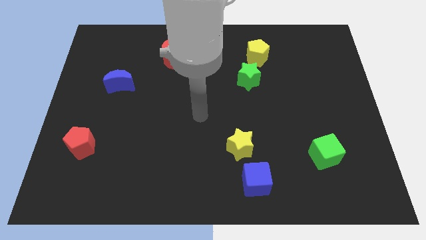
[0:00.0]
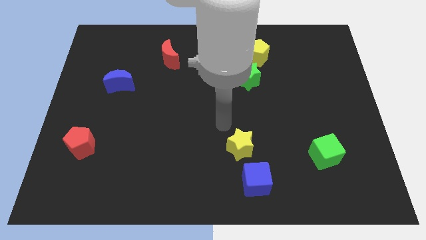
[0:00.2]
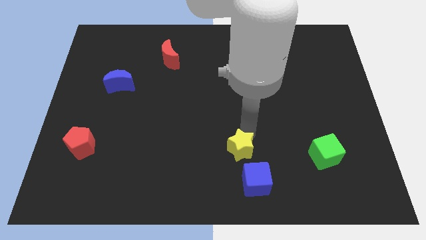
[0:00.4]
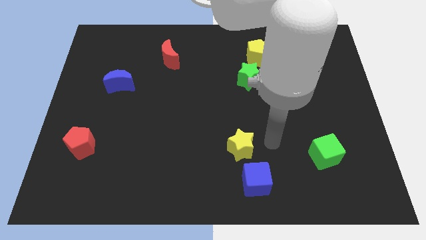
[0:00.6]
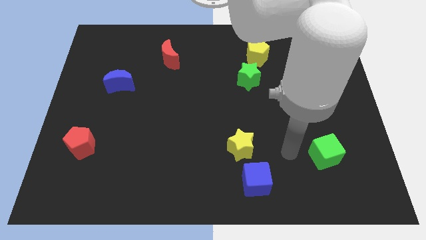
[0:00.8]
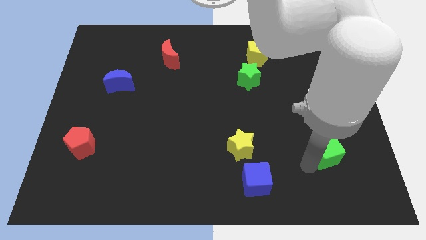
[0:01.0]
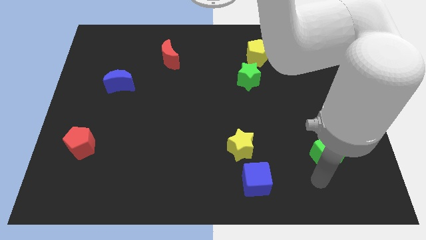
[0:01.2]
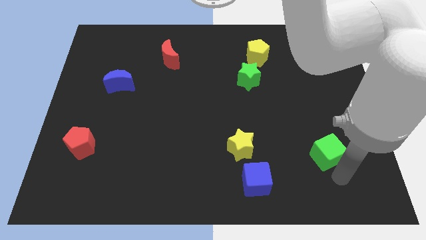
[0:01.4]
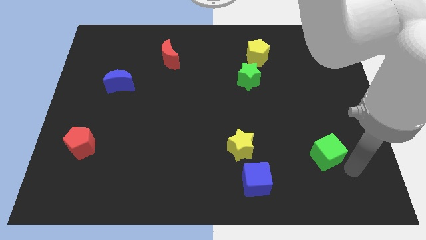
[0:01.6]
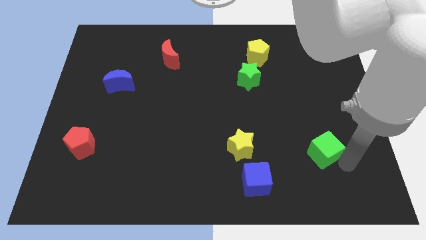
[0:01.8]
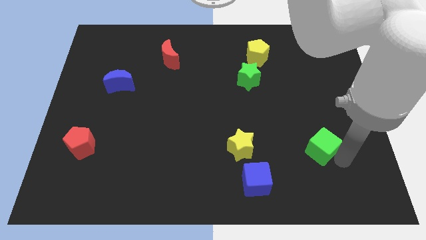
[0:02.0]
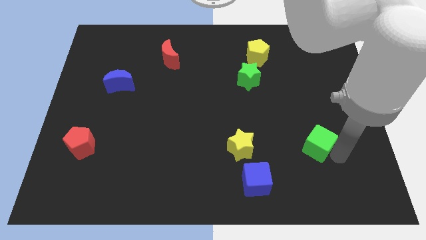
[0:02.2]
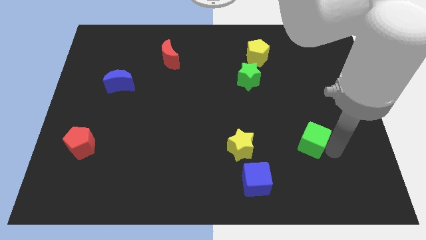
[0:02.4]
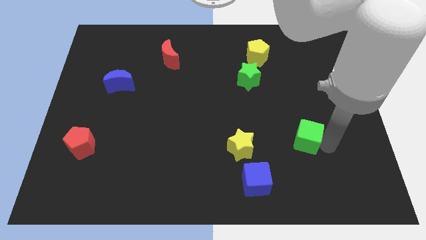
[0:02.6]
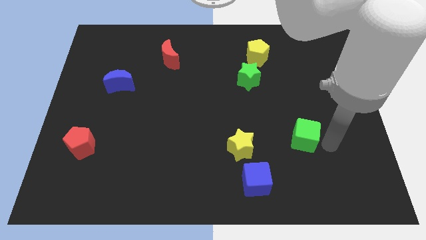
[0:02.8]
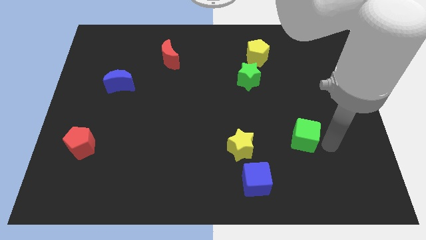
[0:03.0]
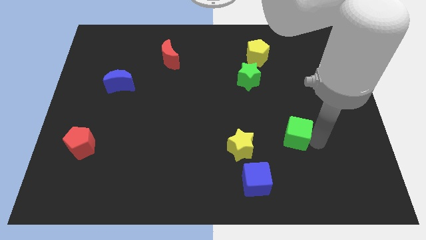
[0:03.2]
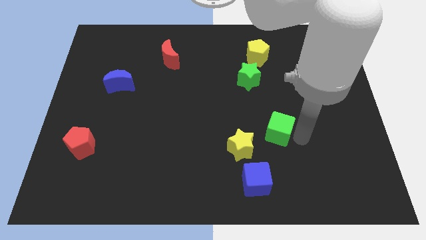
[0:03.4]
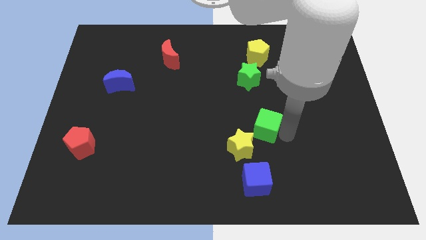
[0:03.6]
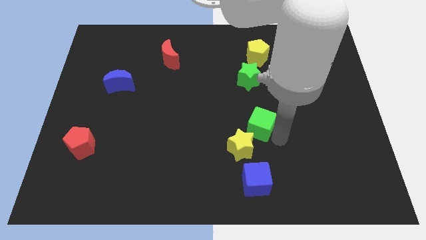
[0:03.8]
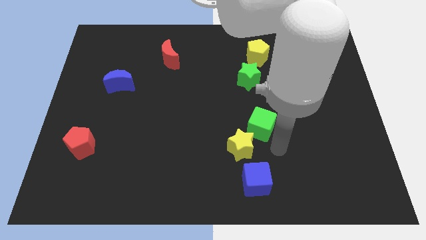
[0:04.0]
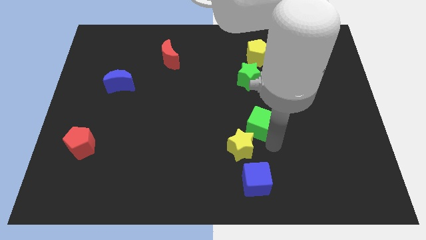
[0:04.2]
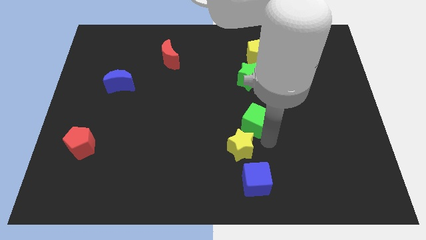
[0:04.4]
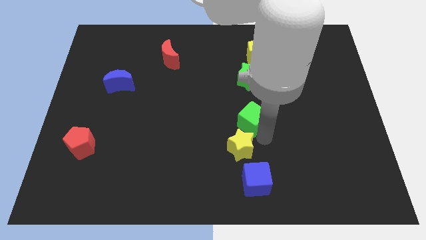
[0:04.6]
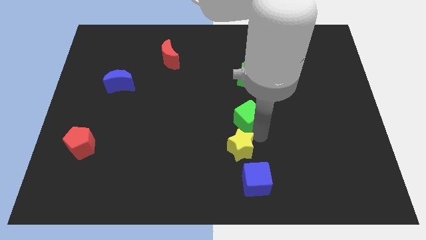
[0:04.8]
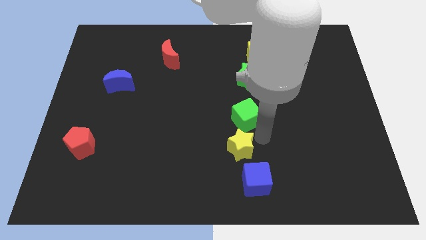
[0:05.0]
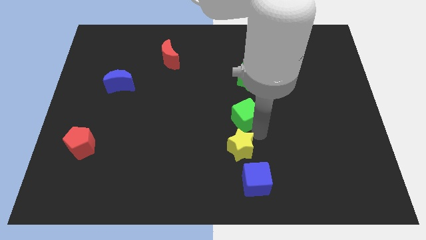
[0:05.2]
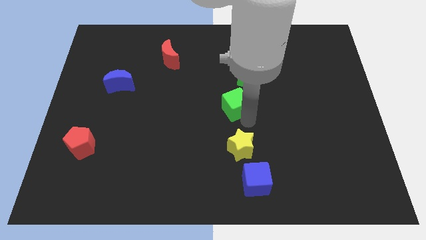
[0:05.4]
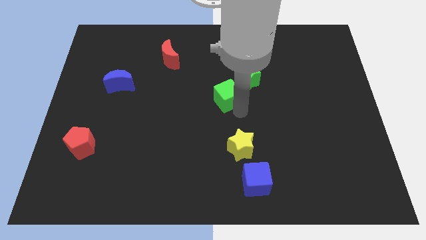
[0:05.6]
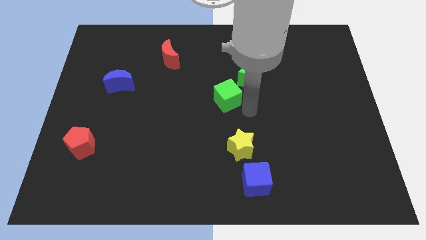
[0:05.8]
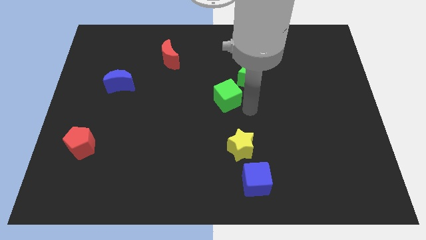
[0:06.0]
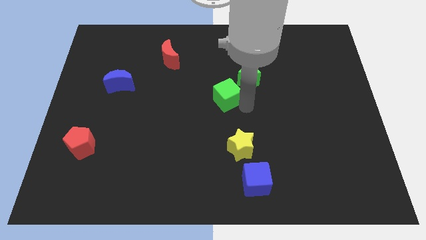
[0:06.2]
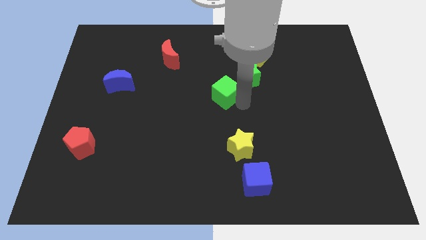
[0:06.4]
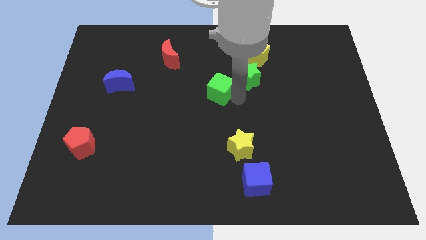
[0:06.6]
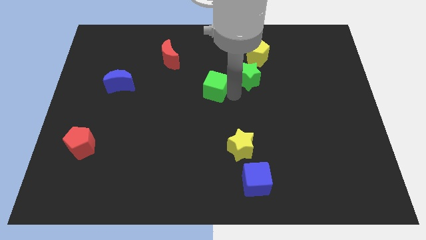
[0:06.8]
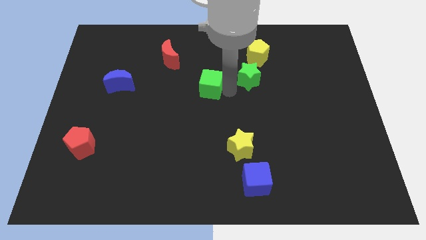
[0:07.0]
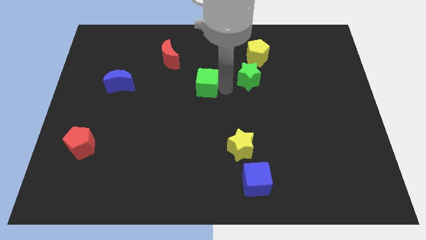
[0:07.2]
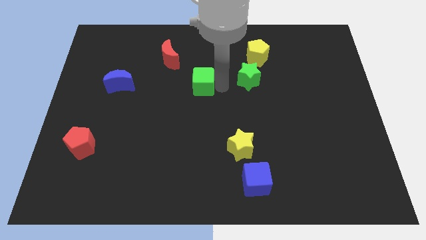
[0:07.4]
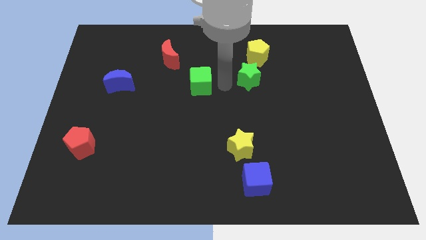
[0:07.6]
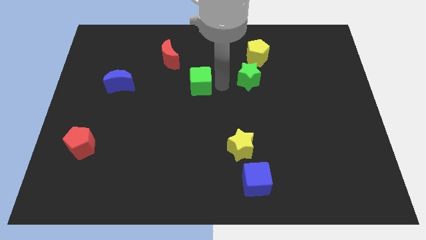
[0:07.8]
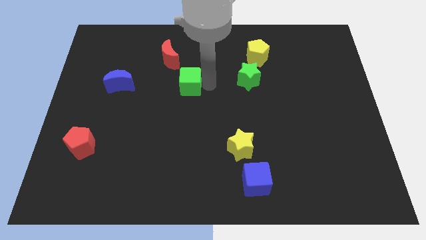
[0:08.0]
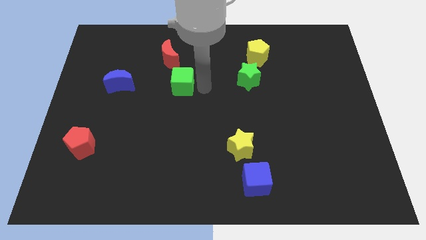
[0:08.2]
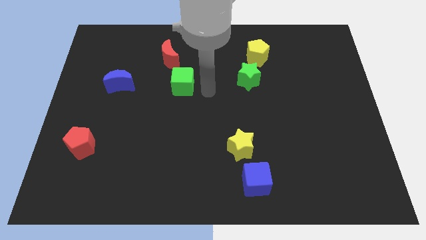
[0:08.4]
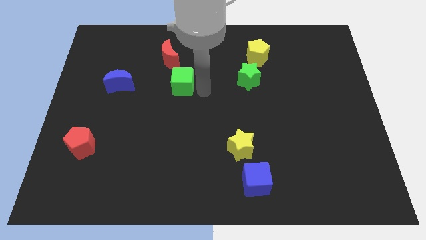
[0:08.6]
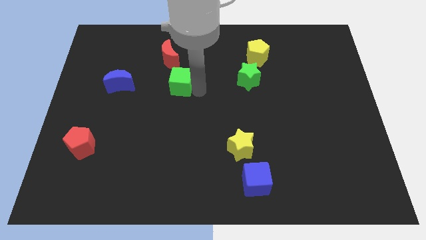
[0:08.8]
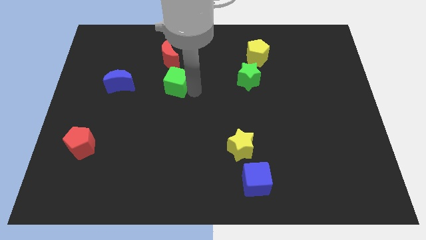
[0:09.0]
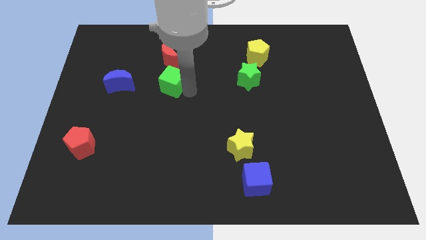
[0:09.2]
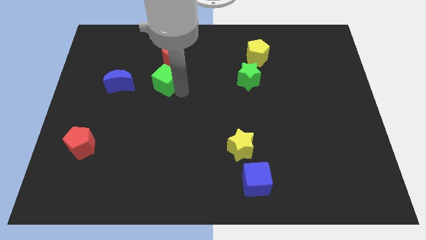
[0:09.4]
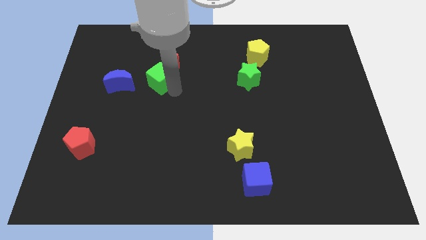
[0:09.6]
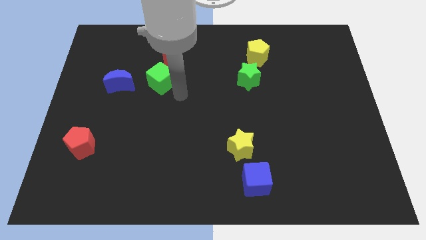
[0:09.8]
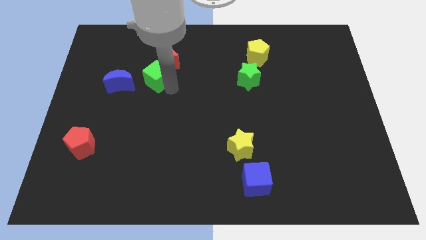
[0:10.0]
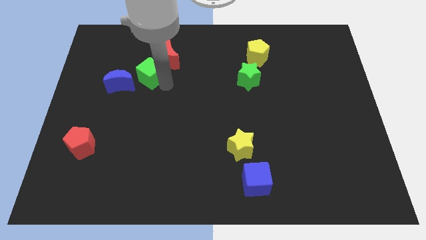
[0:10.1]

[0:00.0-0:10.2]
move the green cube to the top right of the blue moon

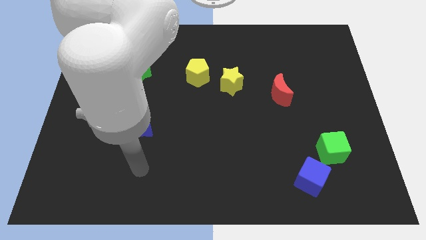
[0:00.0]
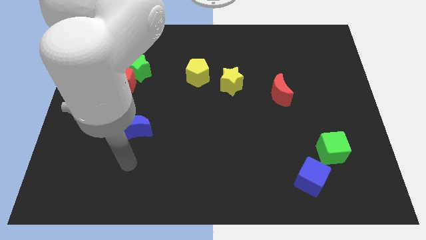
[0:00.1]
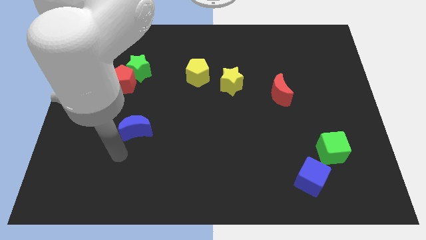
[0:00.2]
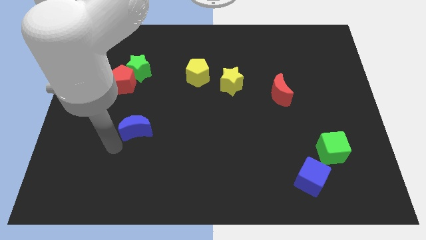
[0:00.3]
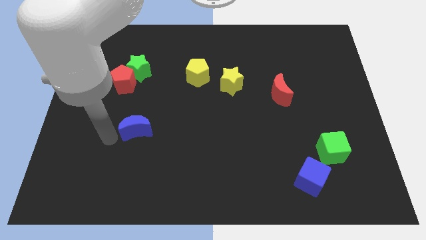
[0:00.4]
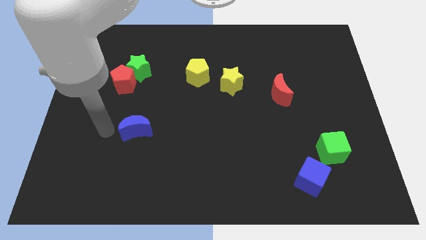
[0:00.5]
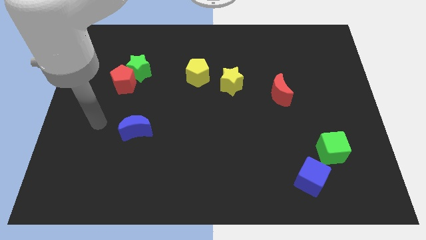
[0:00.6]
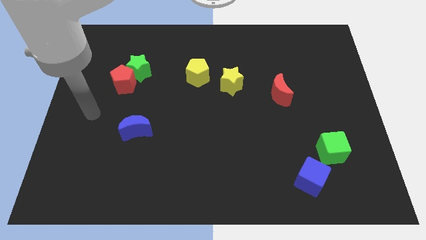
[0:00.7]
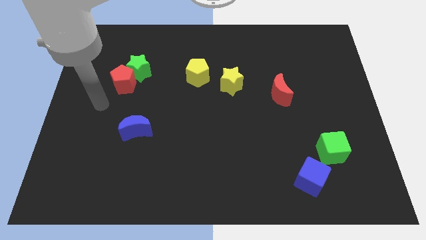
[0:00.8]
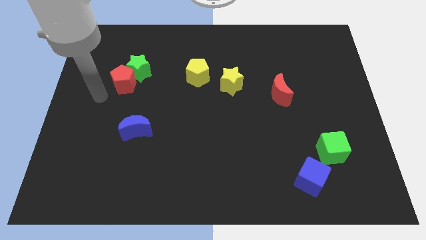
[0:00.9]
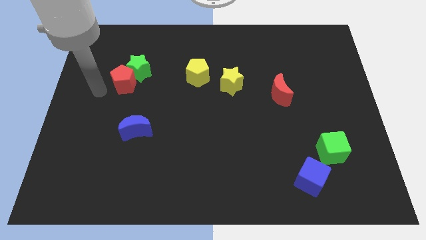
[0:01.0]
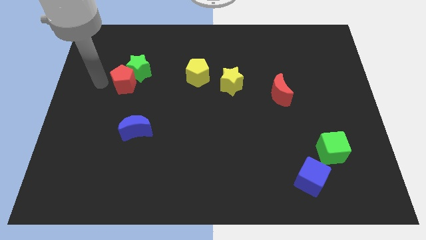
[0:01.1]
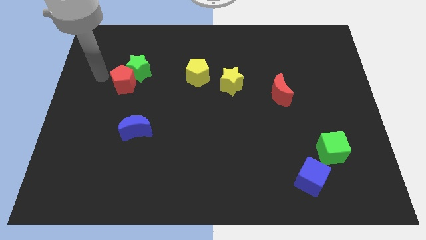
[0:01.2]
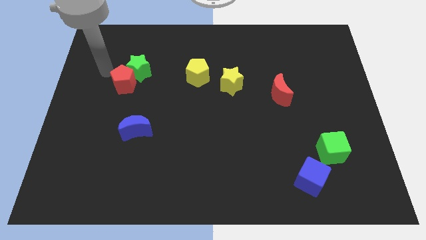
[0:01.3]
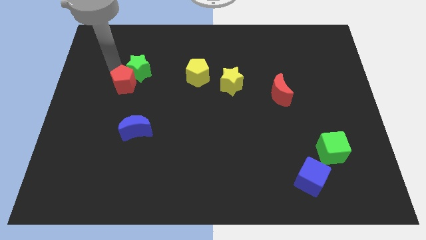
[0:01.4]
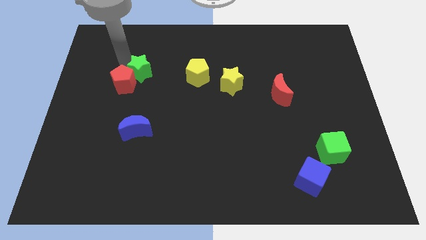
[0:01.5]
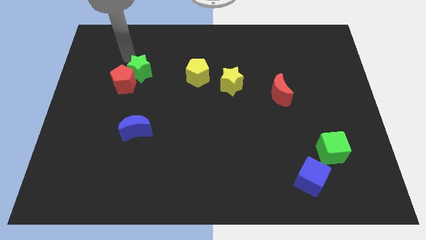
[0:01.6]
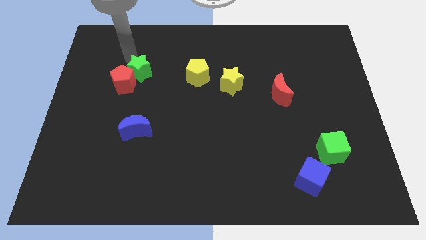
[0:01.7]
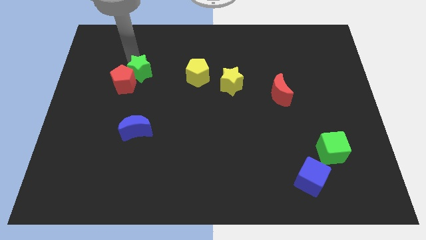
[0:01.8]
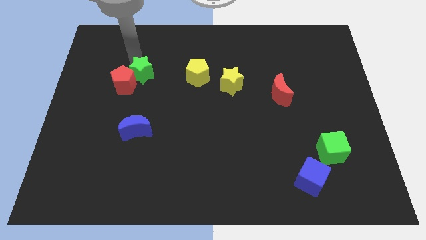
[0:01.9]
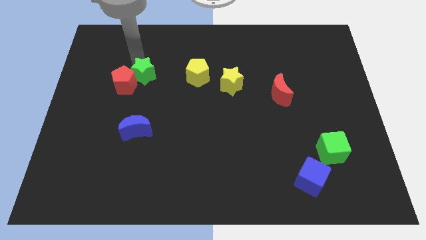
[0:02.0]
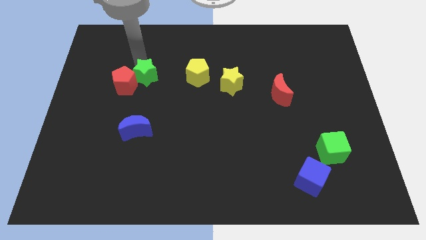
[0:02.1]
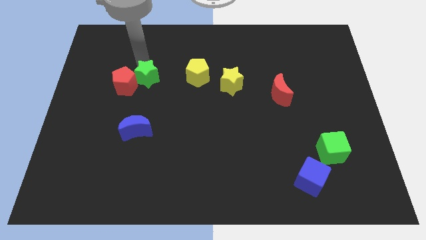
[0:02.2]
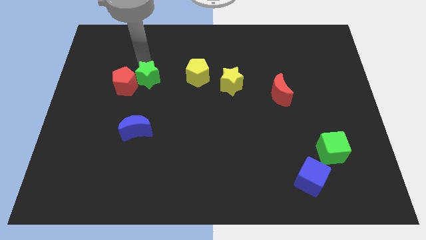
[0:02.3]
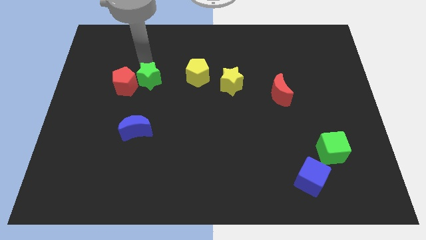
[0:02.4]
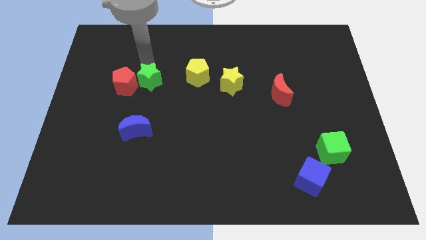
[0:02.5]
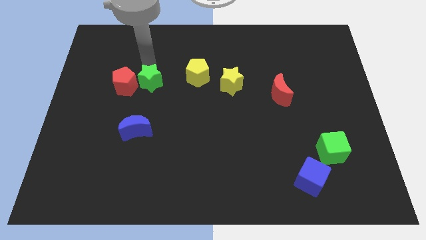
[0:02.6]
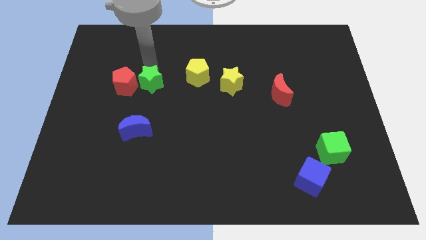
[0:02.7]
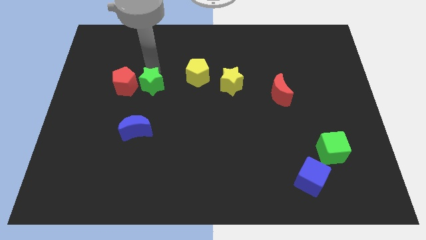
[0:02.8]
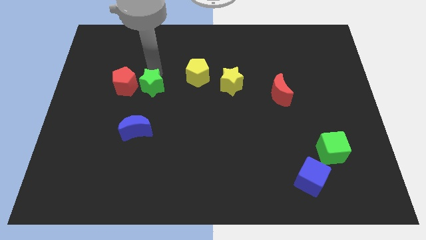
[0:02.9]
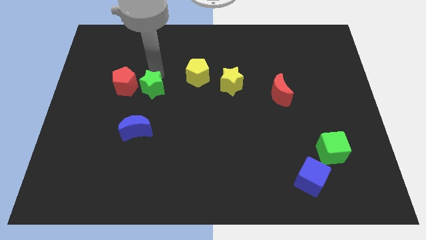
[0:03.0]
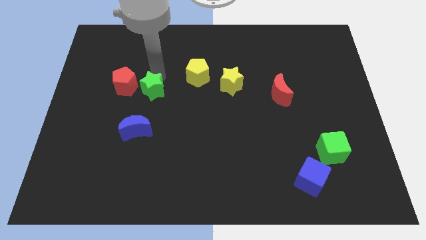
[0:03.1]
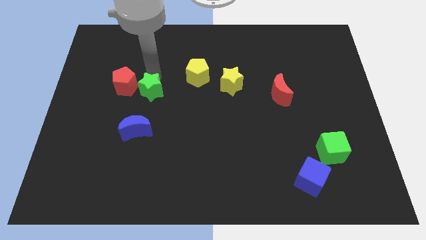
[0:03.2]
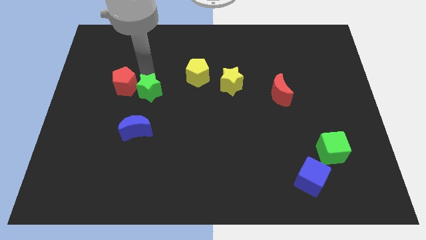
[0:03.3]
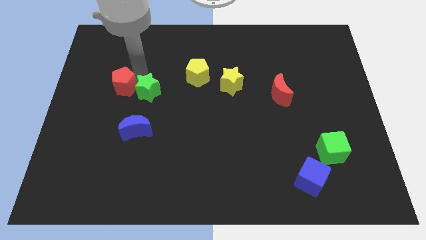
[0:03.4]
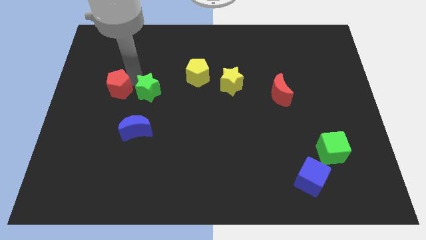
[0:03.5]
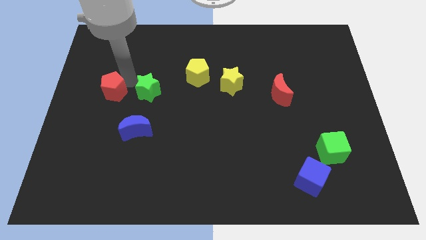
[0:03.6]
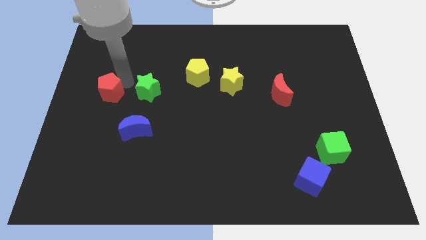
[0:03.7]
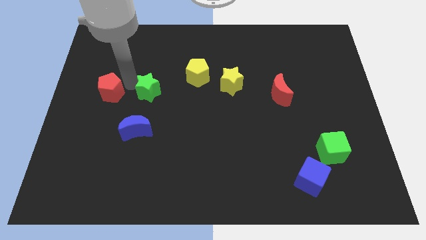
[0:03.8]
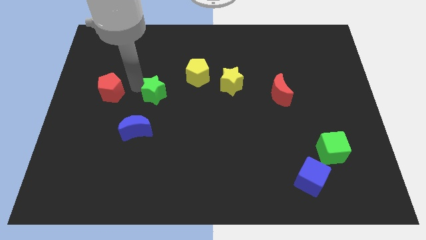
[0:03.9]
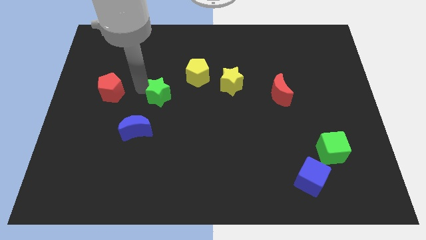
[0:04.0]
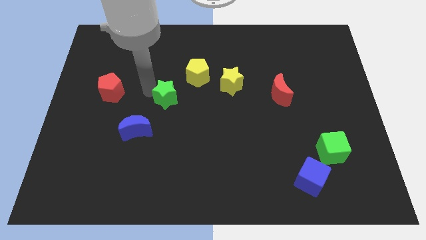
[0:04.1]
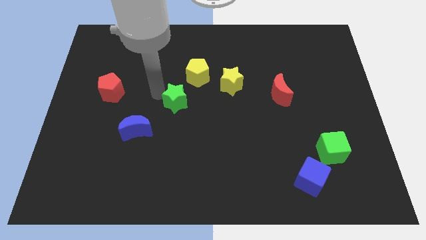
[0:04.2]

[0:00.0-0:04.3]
push the green star below the yellow pentagon
